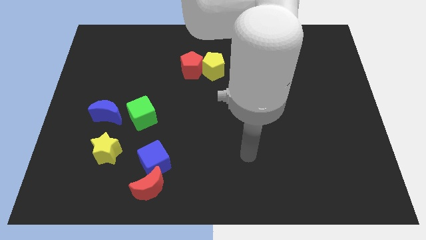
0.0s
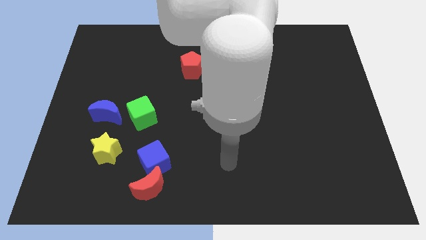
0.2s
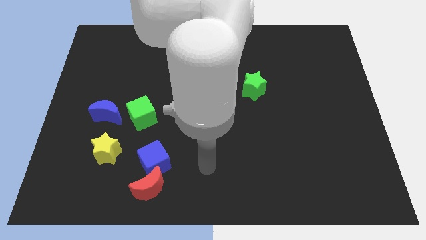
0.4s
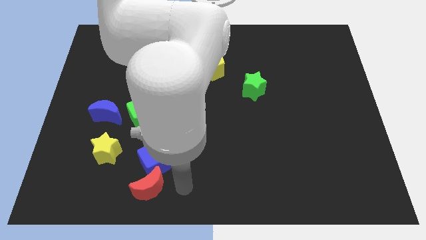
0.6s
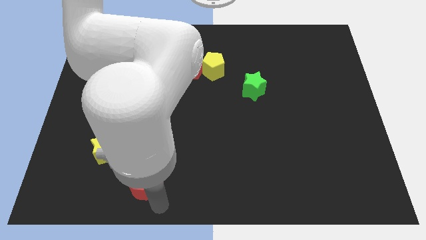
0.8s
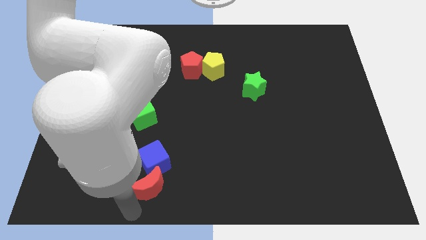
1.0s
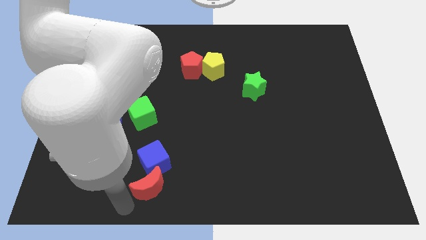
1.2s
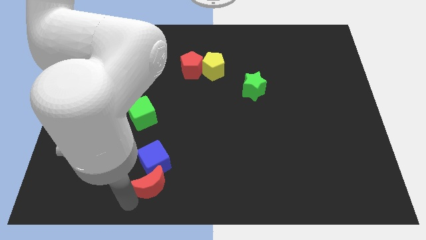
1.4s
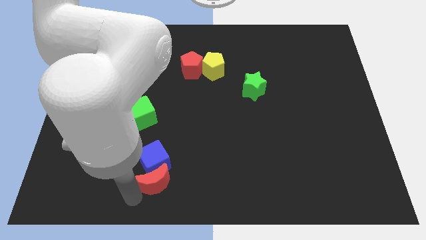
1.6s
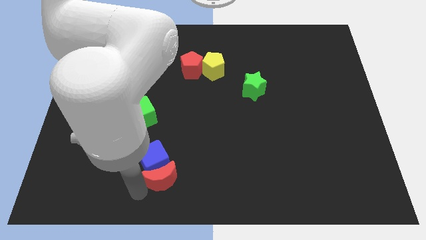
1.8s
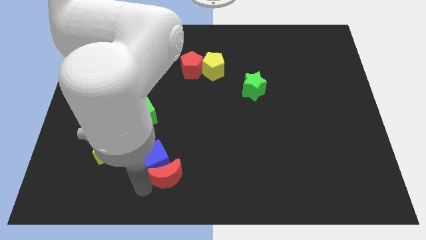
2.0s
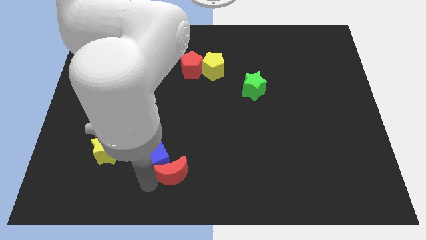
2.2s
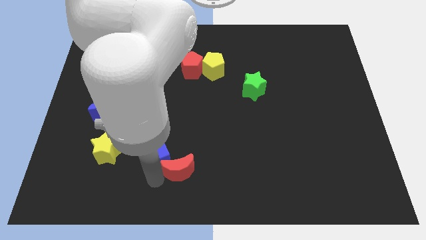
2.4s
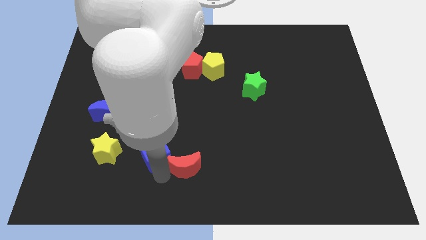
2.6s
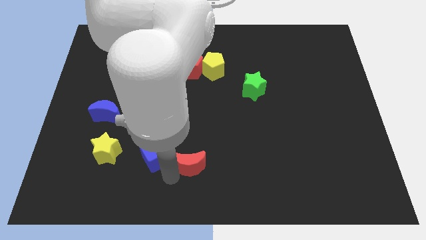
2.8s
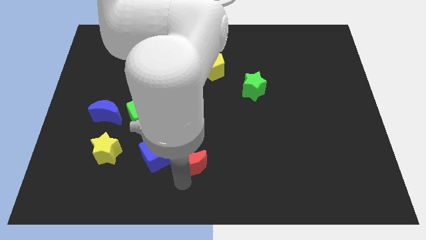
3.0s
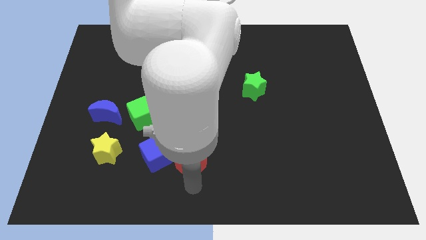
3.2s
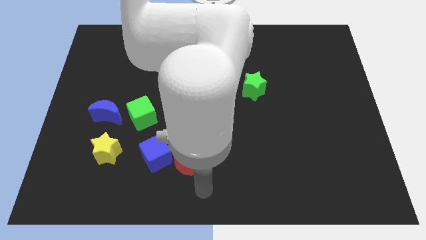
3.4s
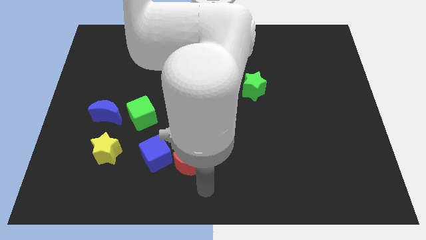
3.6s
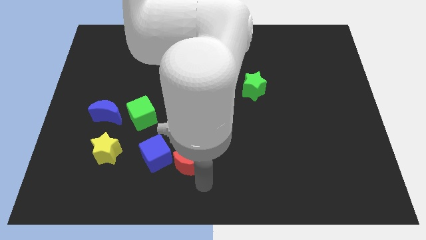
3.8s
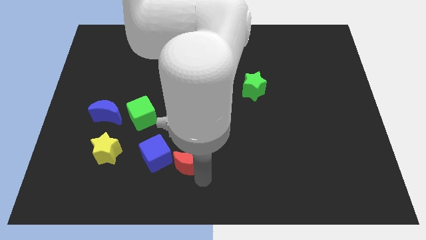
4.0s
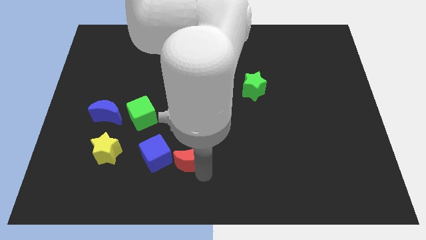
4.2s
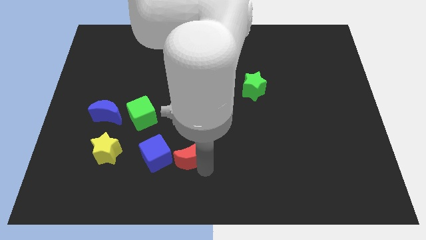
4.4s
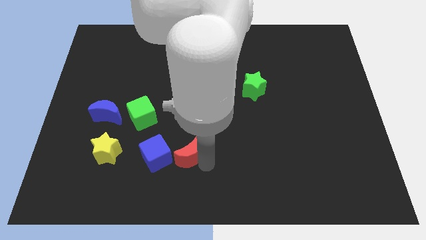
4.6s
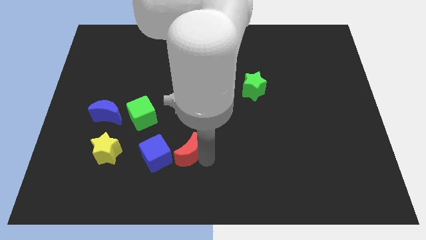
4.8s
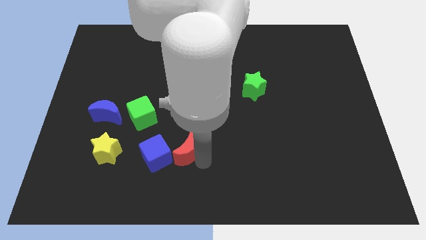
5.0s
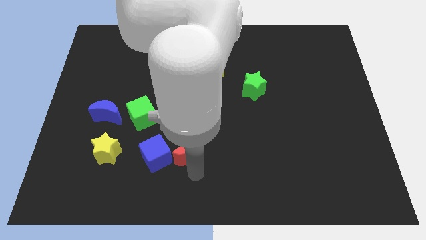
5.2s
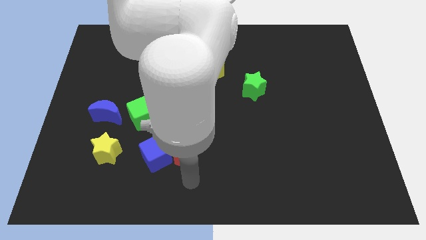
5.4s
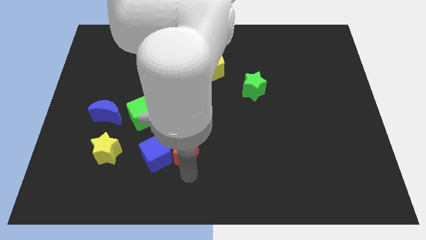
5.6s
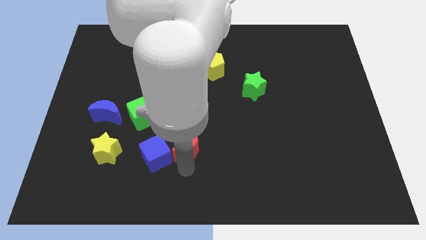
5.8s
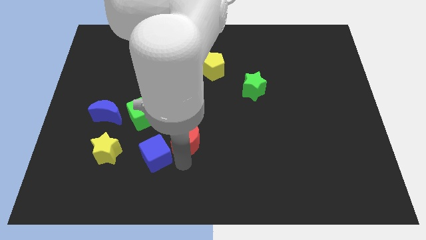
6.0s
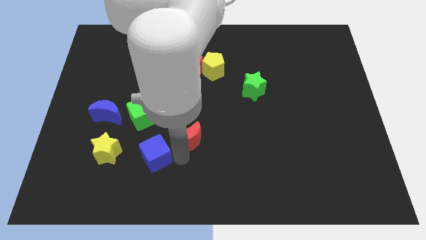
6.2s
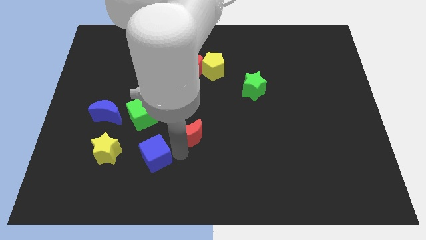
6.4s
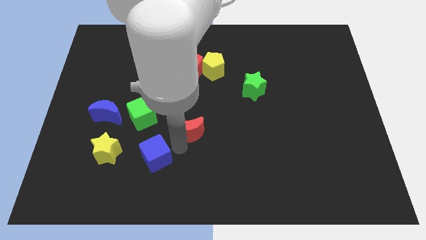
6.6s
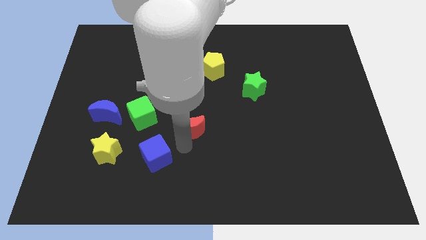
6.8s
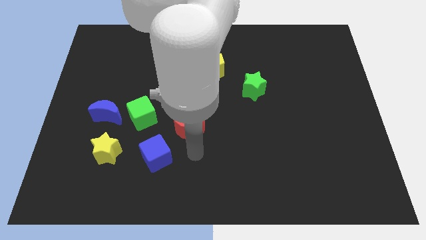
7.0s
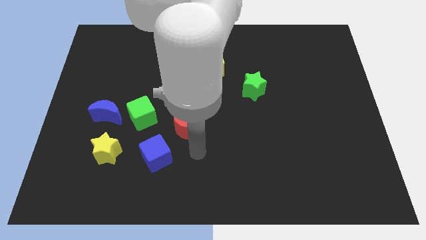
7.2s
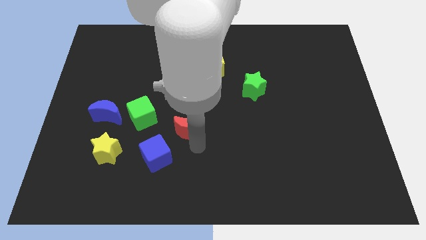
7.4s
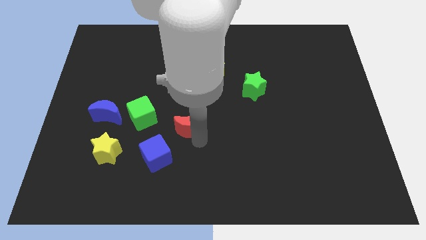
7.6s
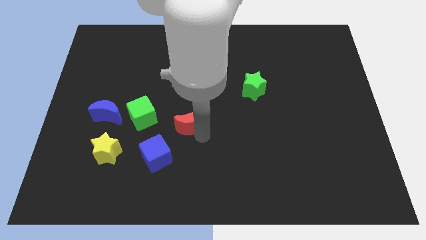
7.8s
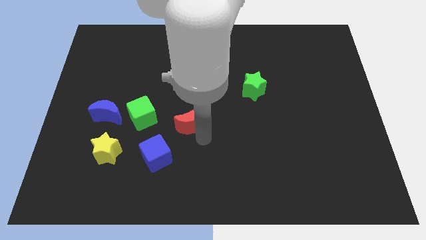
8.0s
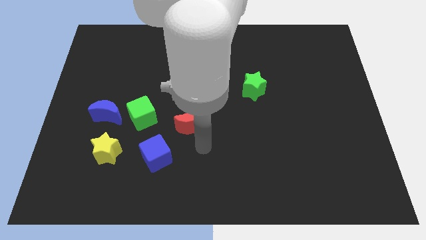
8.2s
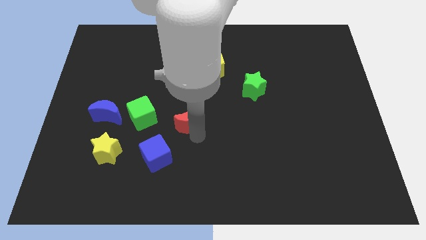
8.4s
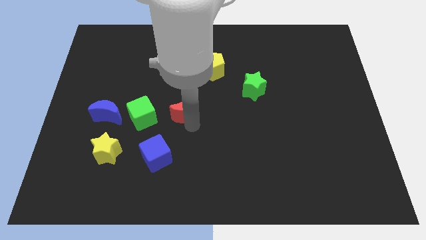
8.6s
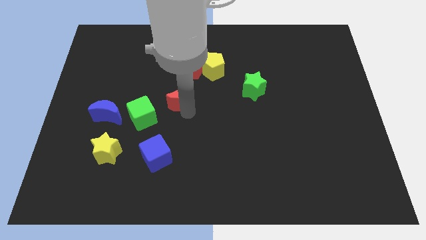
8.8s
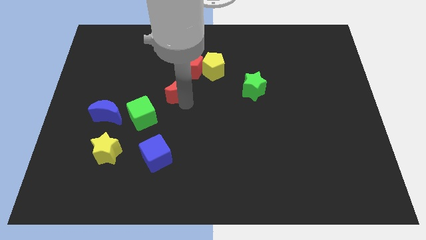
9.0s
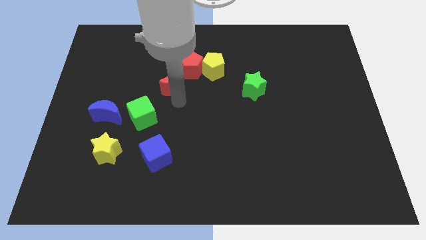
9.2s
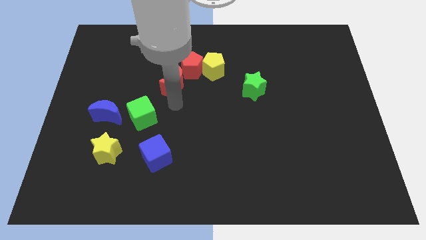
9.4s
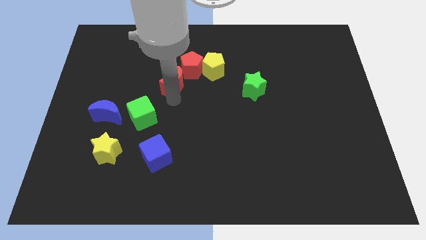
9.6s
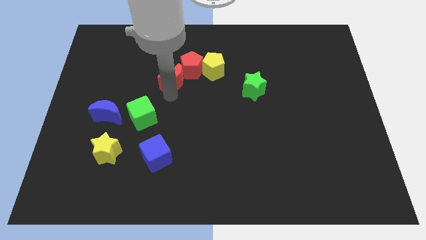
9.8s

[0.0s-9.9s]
put the red moon left of the yellow pentagon

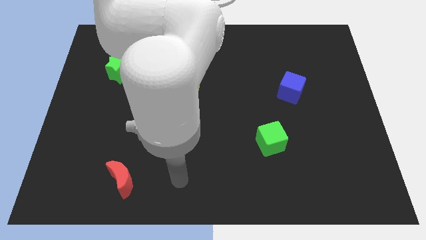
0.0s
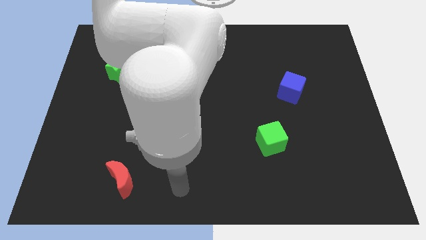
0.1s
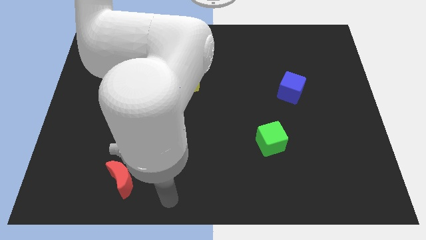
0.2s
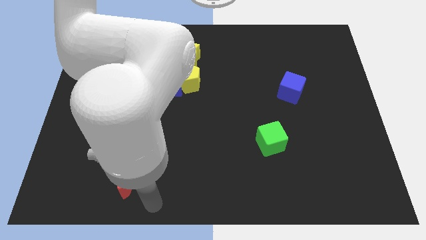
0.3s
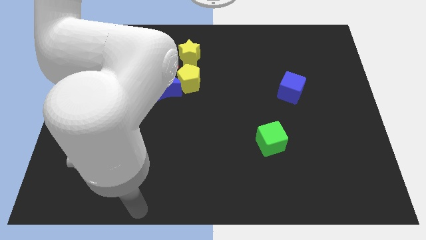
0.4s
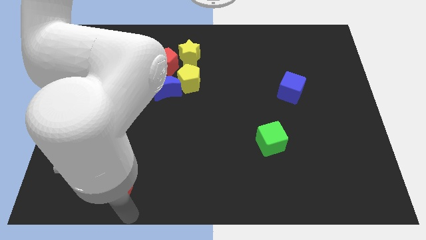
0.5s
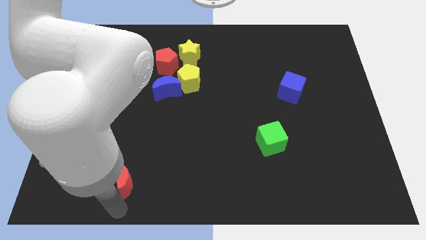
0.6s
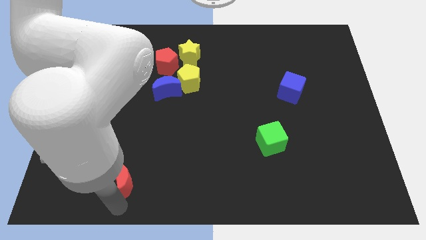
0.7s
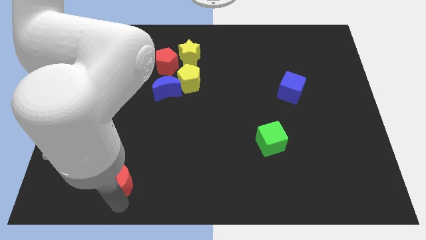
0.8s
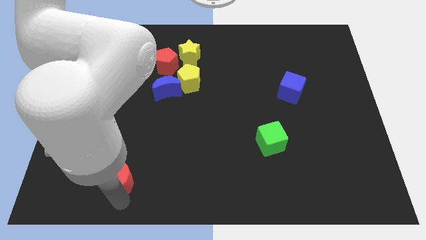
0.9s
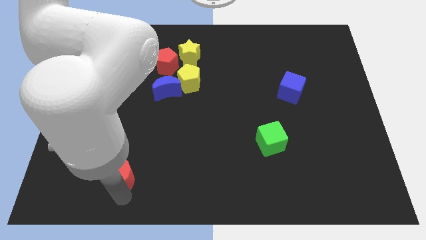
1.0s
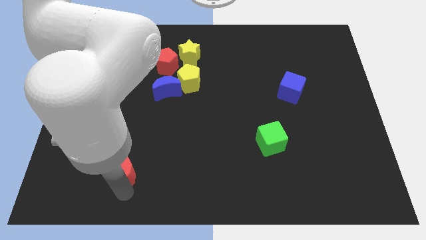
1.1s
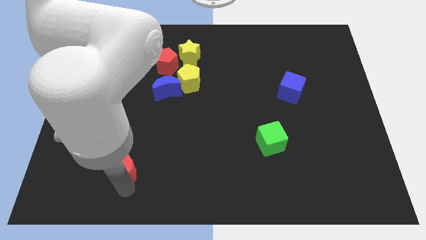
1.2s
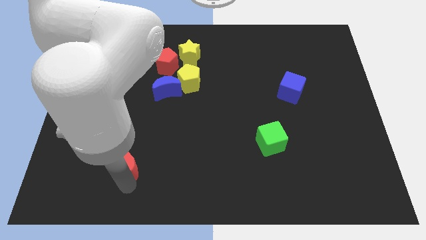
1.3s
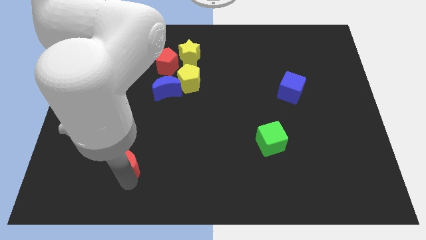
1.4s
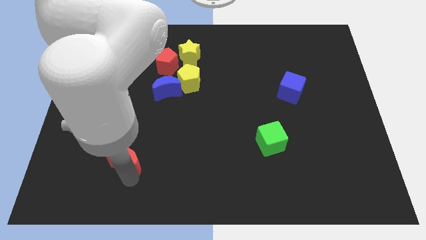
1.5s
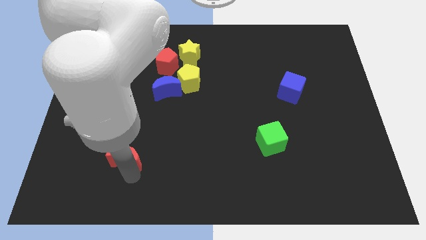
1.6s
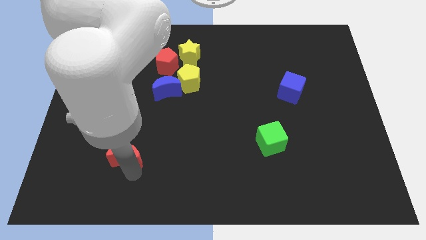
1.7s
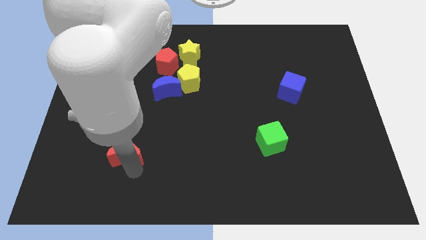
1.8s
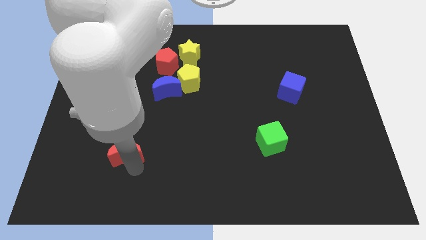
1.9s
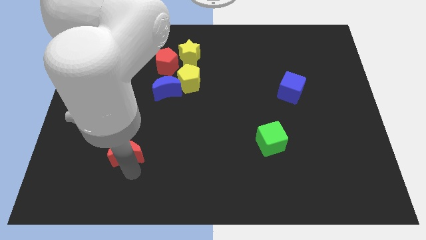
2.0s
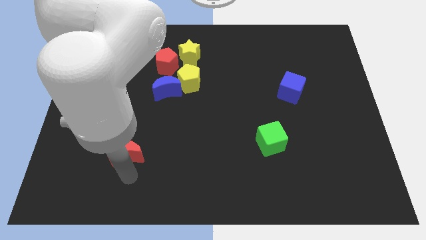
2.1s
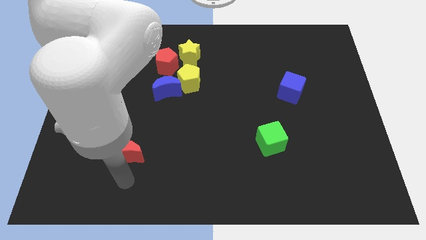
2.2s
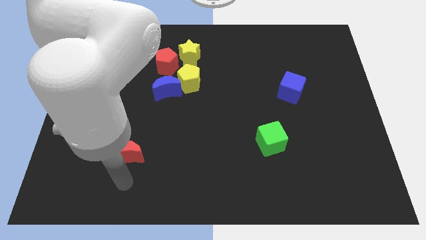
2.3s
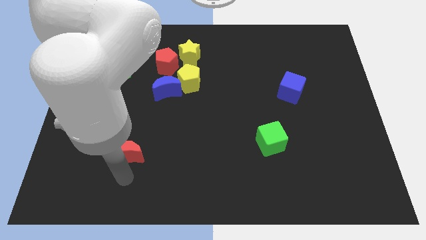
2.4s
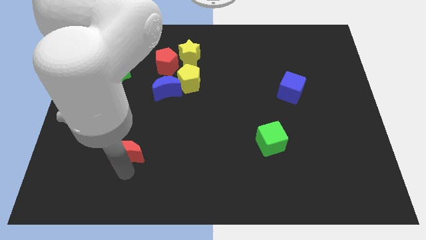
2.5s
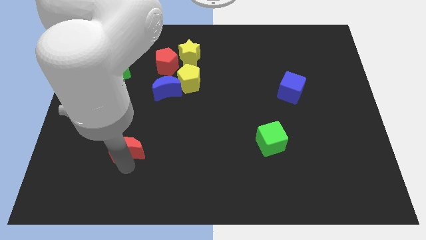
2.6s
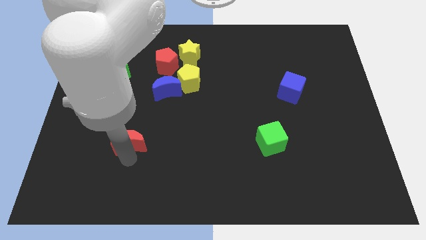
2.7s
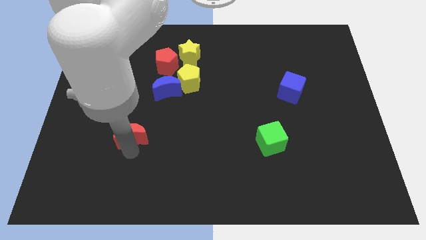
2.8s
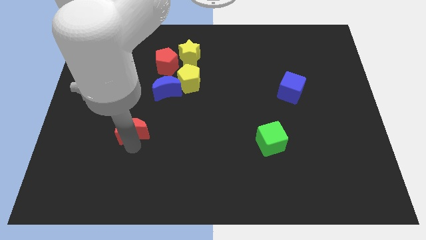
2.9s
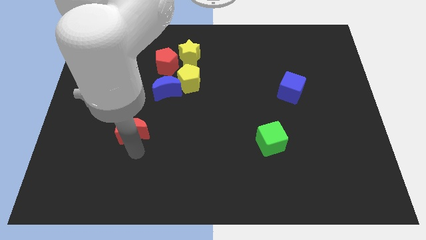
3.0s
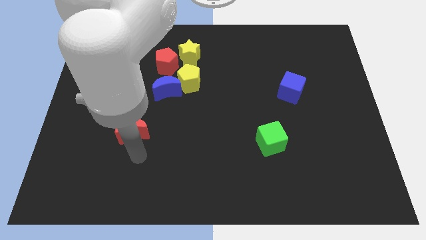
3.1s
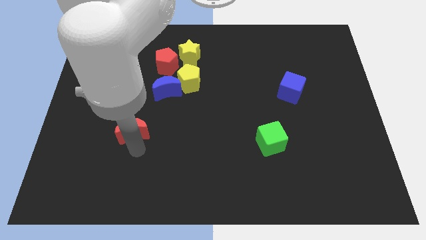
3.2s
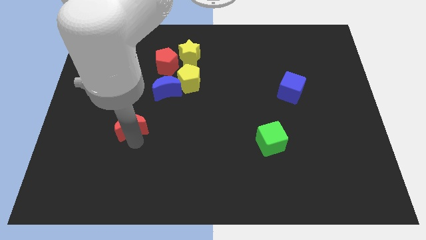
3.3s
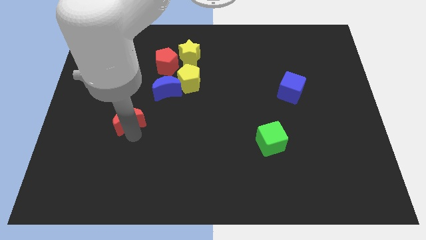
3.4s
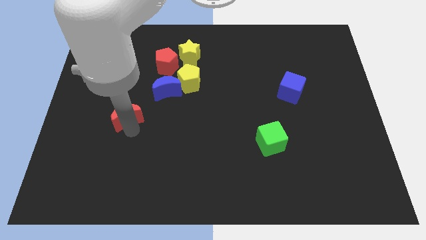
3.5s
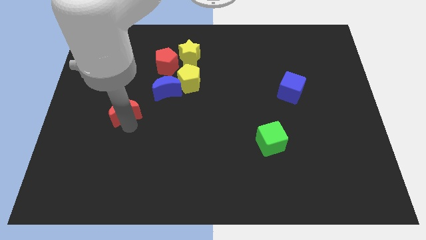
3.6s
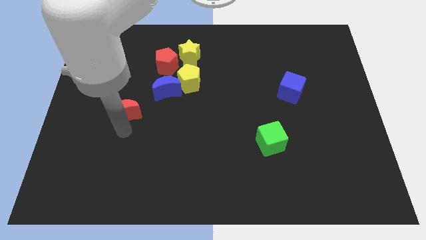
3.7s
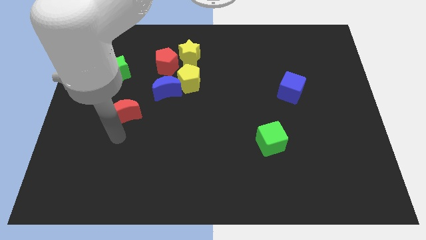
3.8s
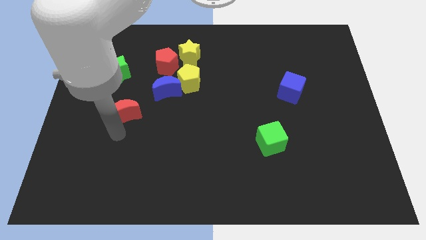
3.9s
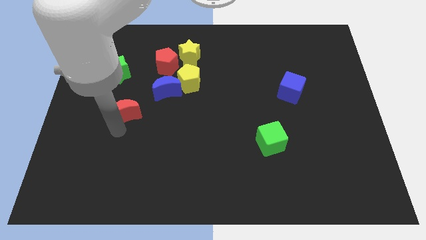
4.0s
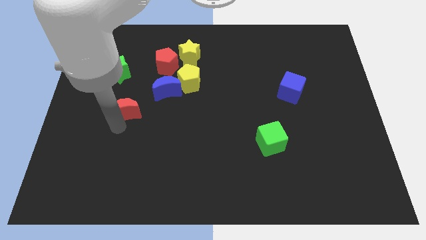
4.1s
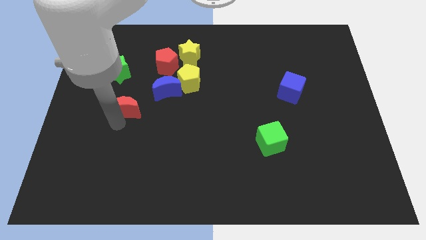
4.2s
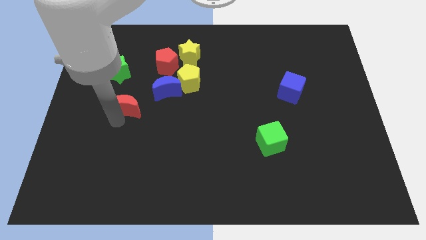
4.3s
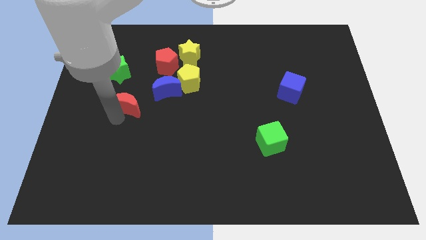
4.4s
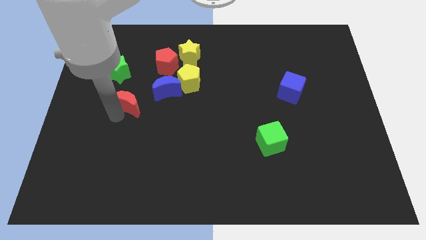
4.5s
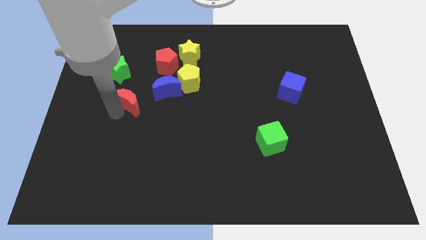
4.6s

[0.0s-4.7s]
move the red moon to the bottom right of the green star
